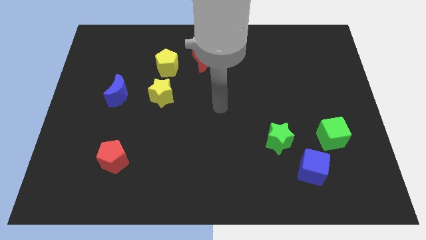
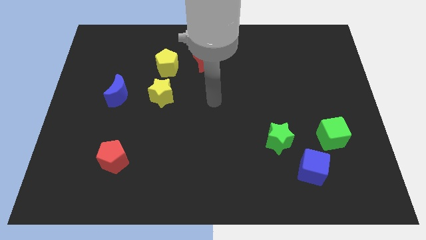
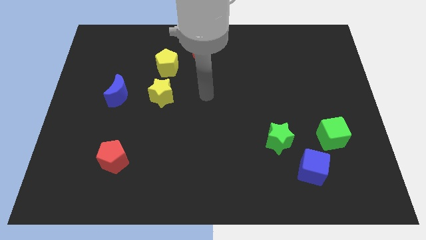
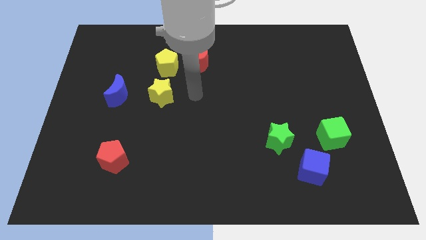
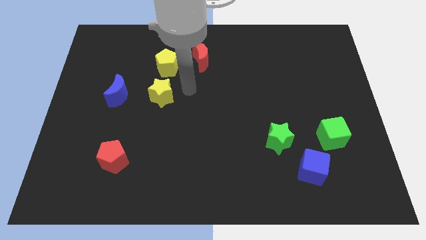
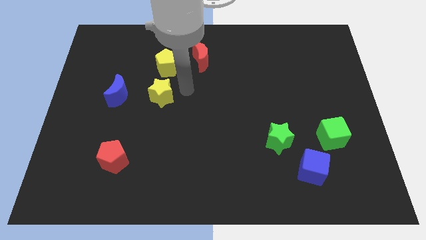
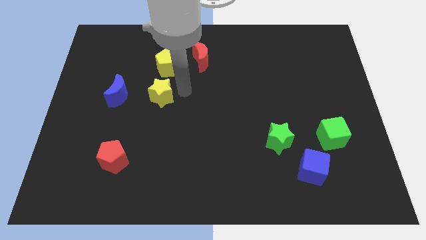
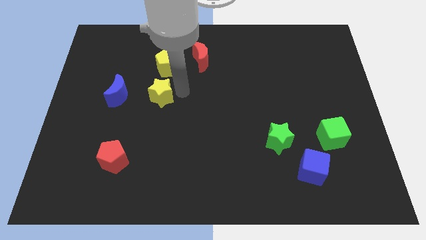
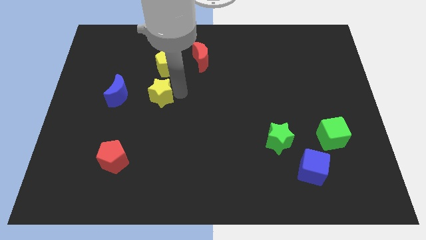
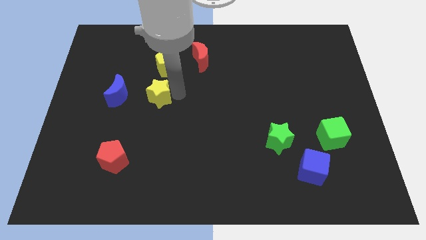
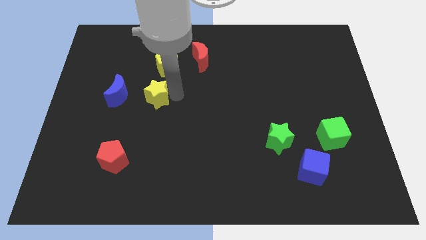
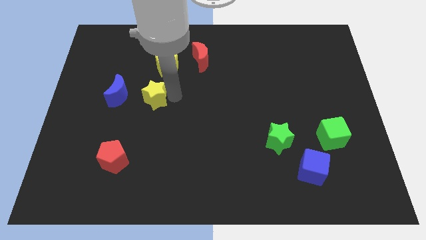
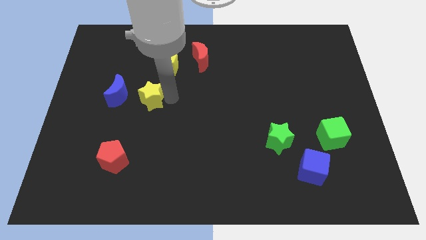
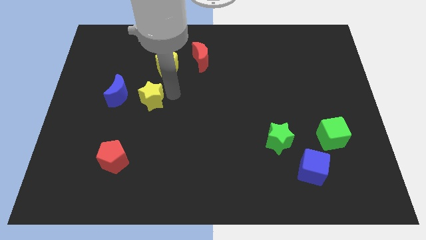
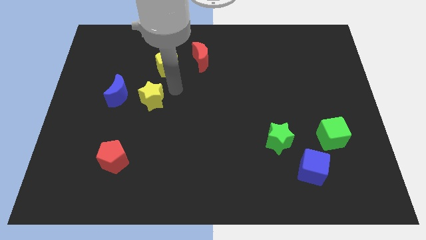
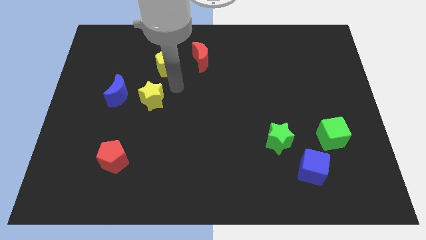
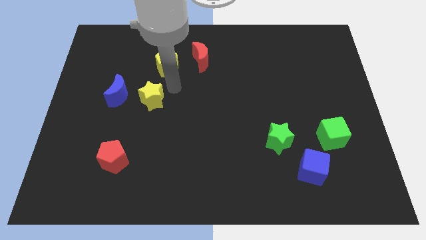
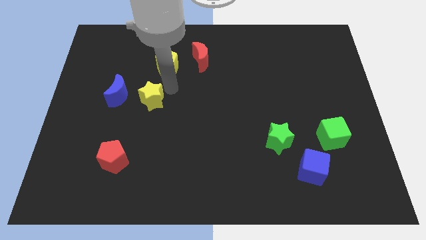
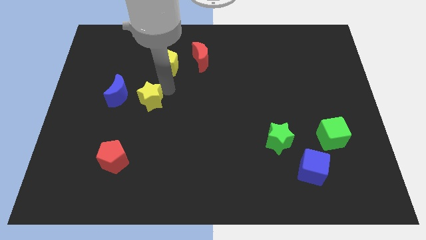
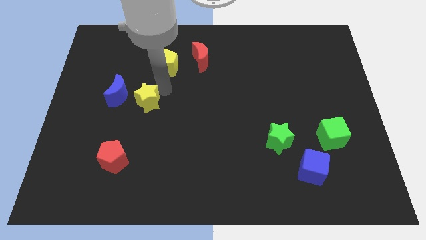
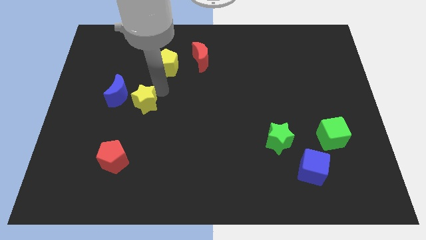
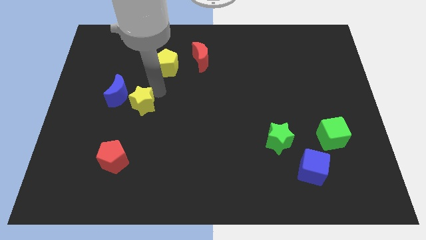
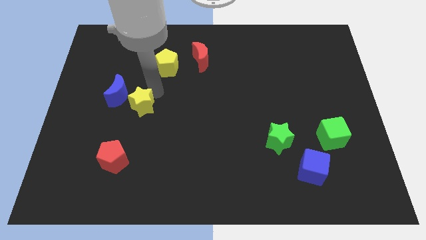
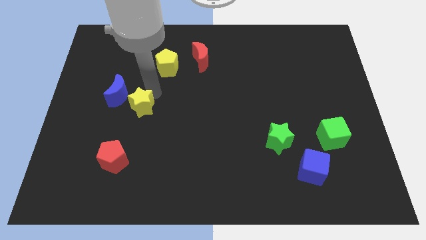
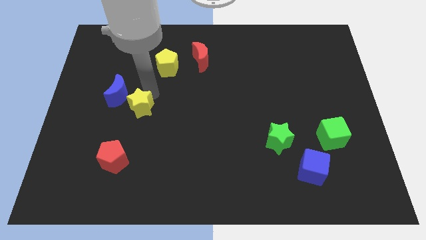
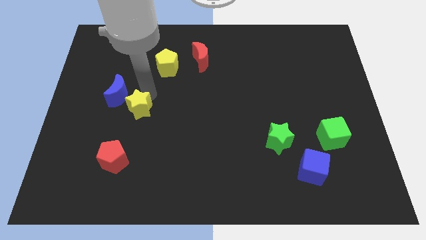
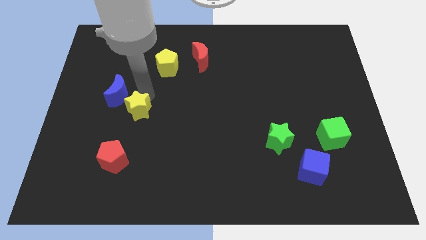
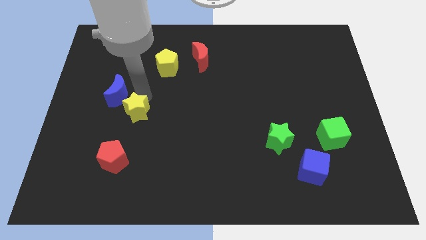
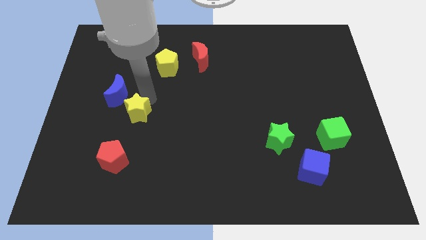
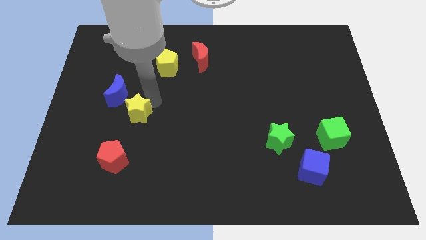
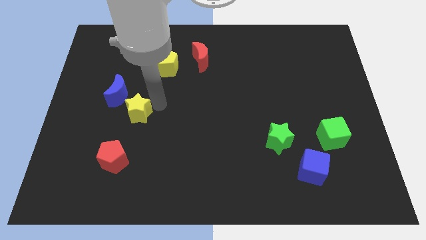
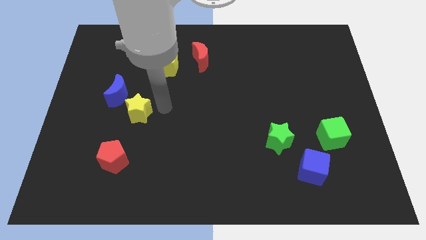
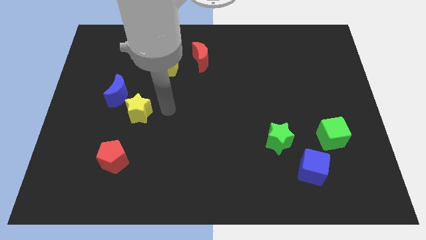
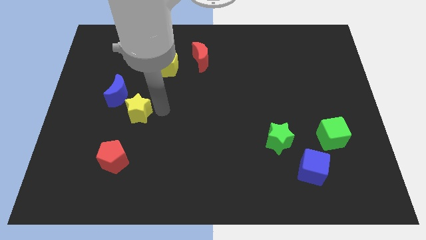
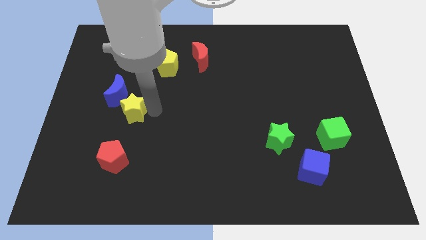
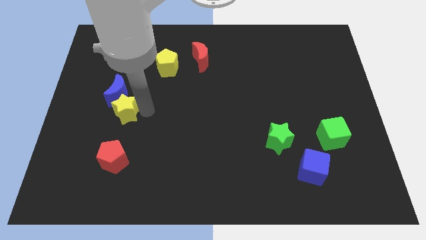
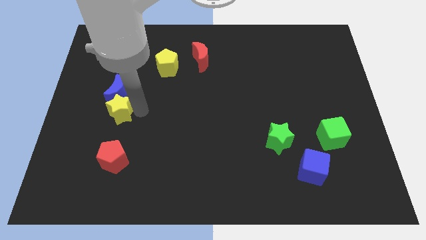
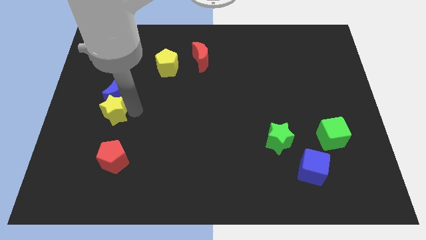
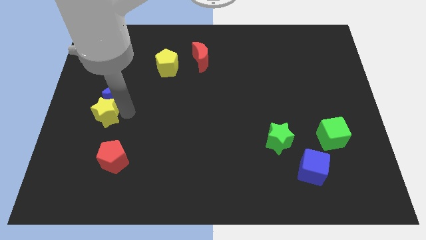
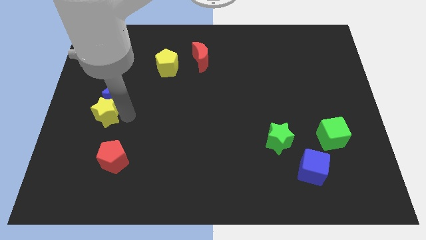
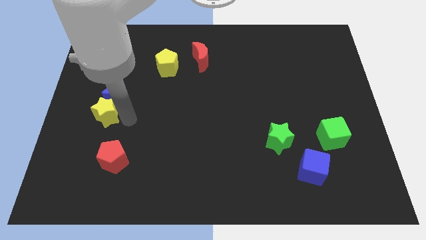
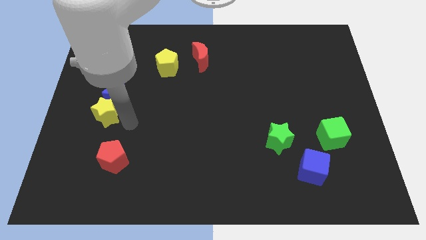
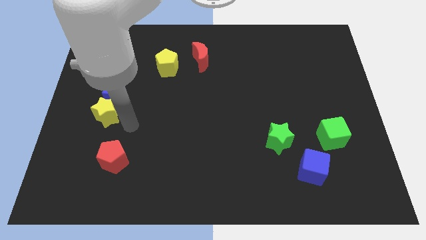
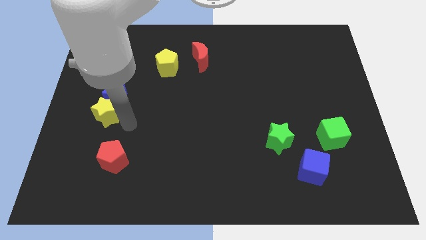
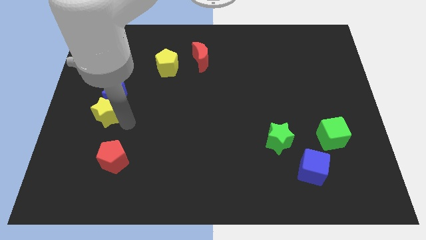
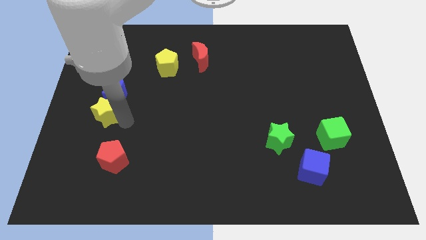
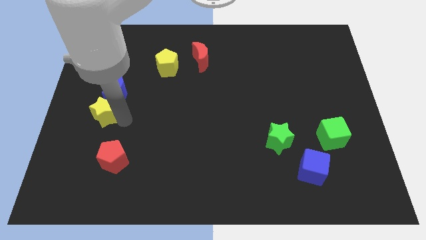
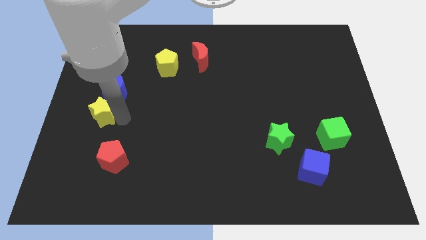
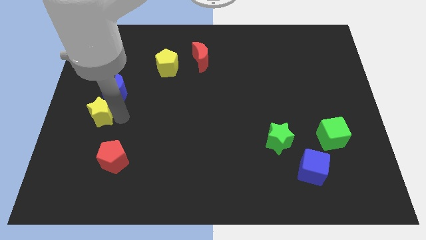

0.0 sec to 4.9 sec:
move the yellow star to the left side

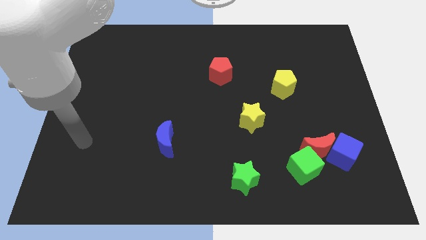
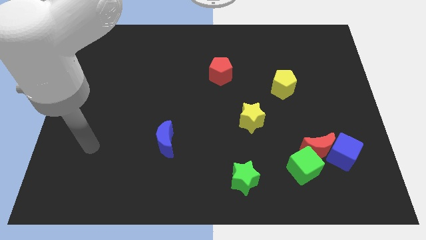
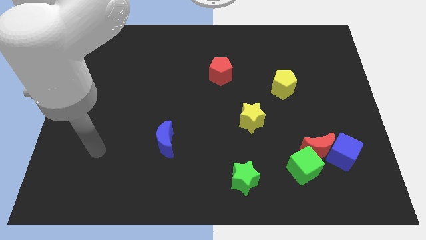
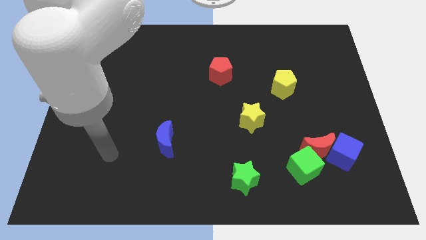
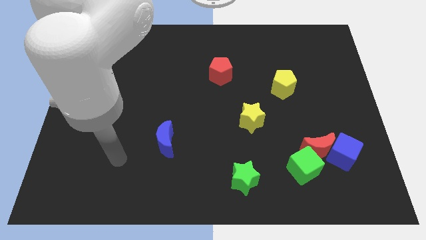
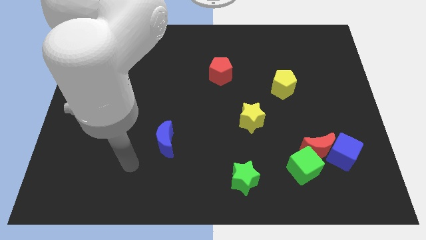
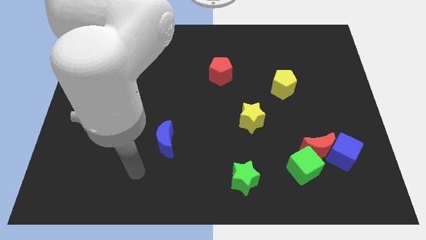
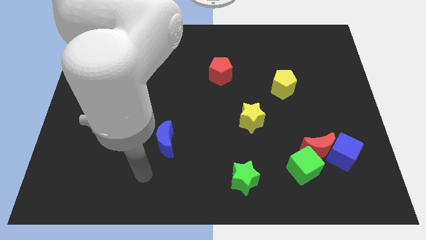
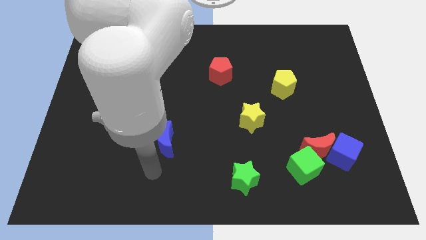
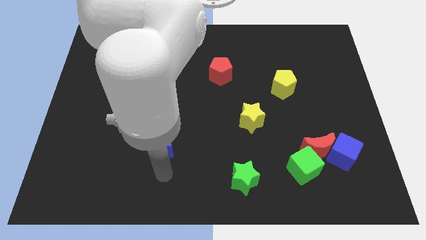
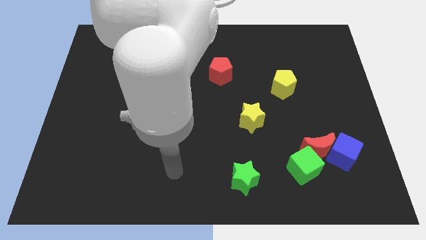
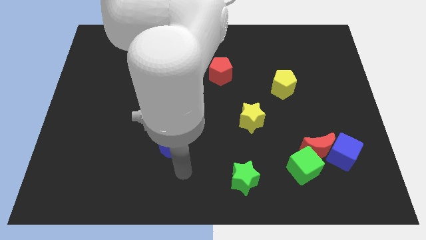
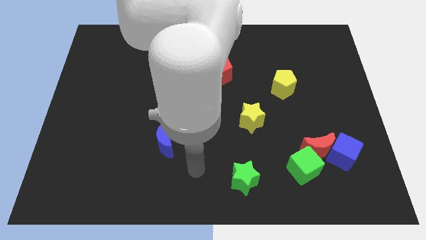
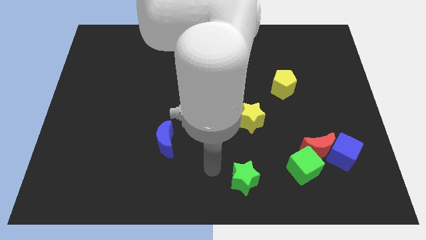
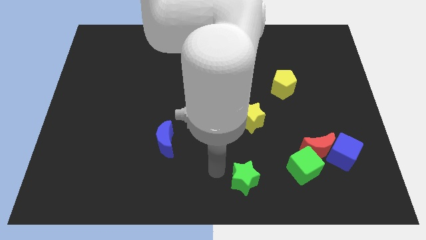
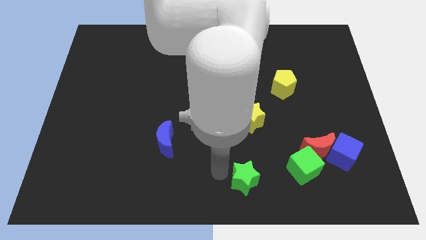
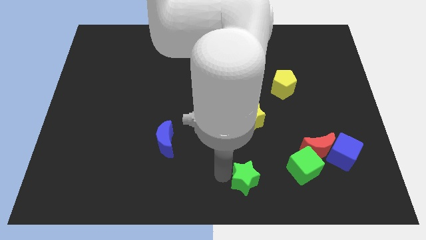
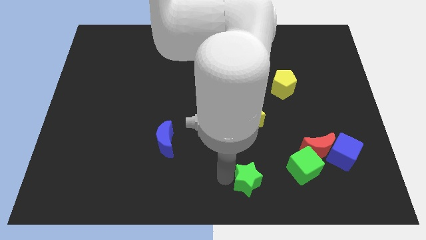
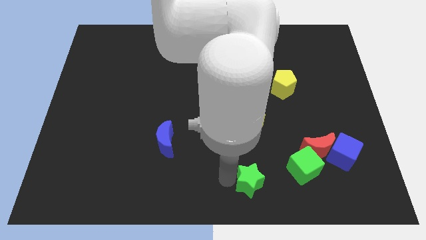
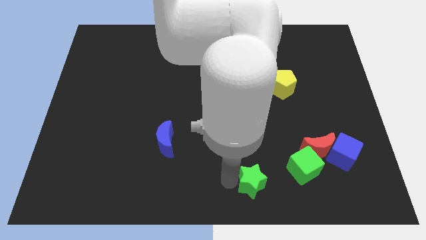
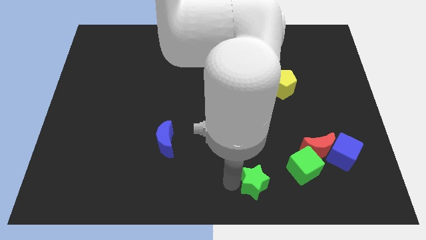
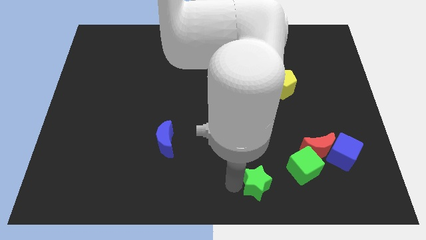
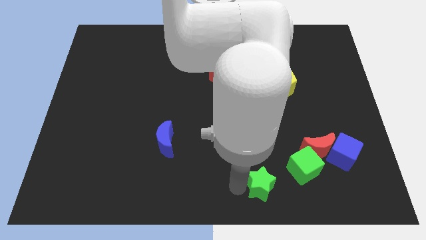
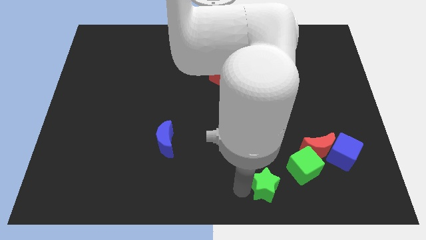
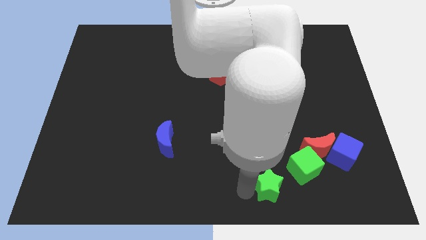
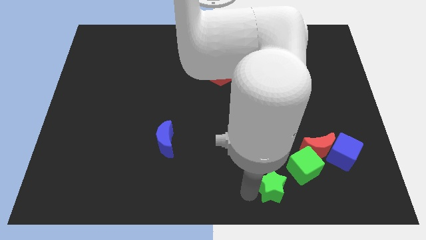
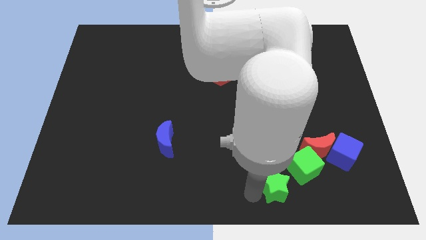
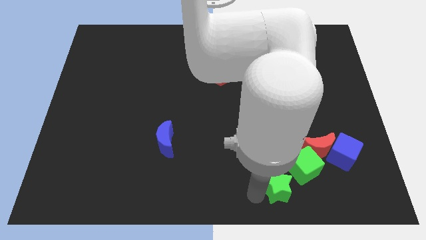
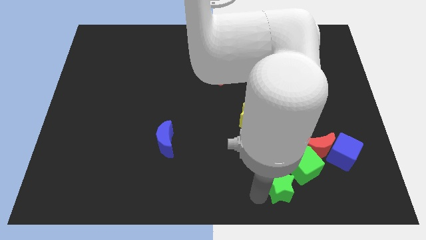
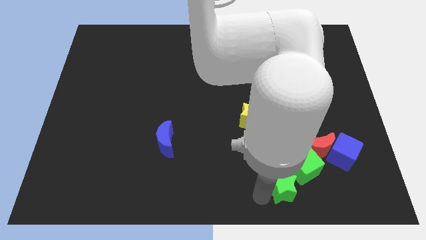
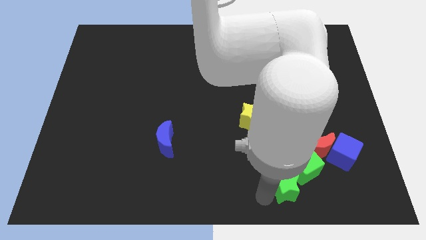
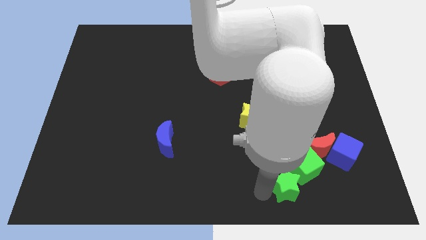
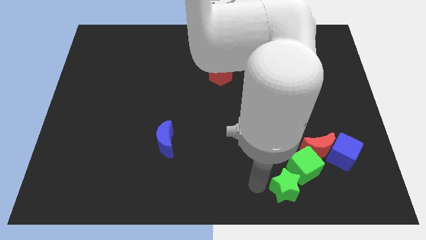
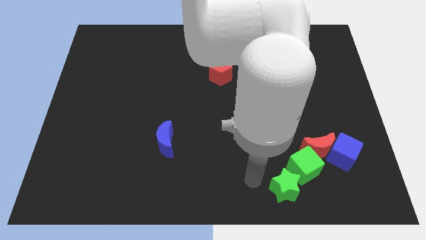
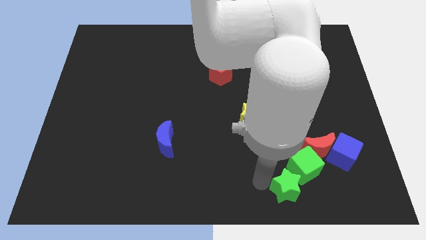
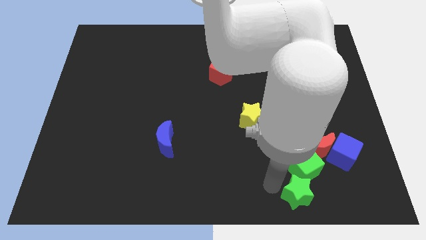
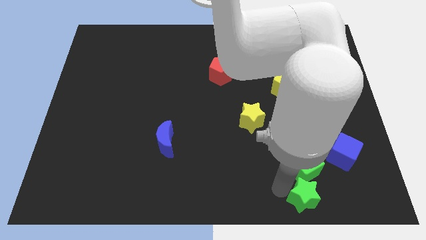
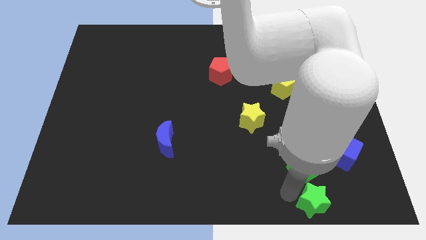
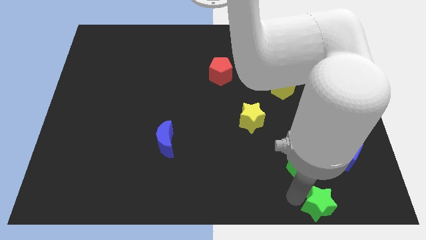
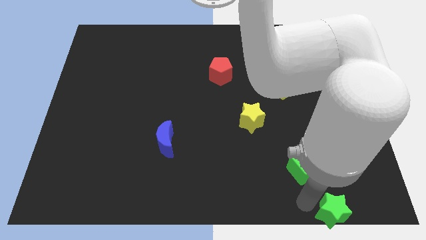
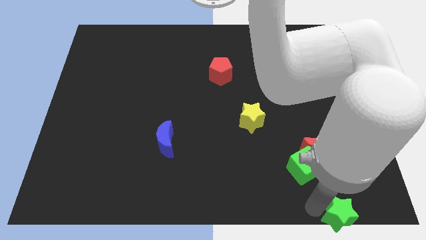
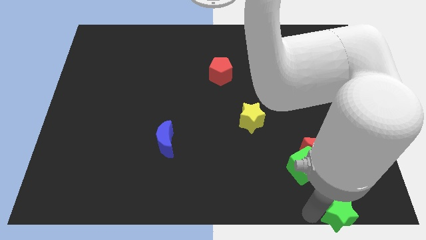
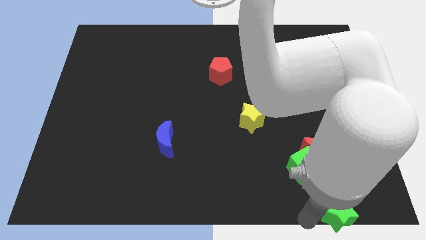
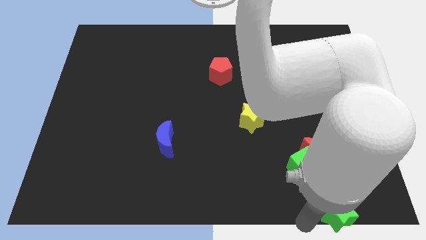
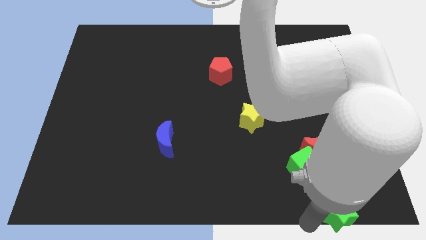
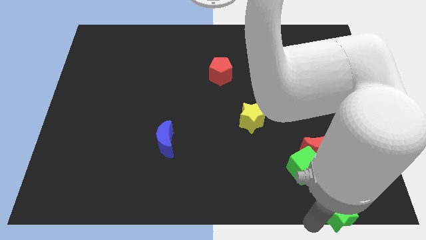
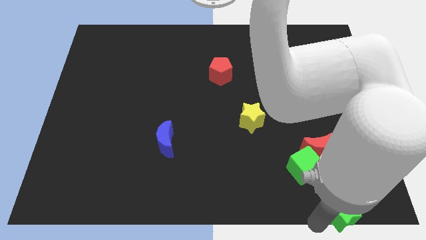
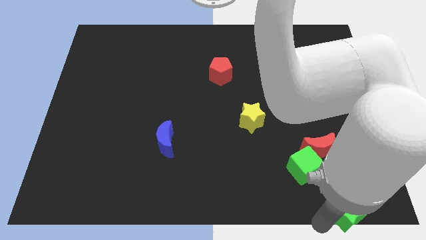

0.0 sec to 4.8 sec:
move the green star to the lower right corner
